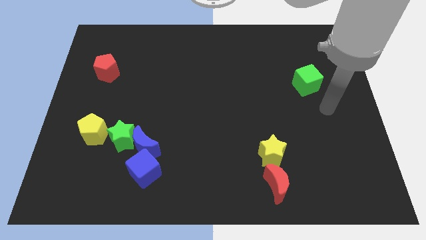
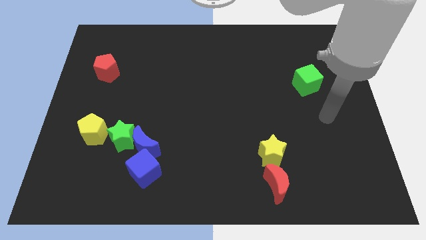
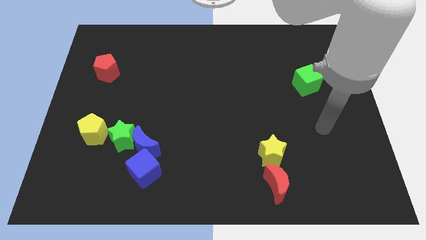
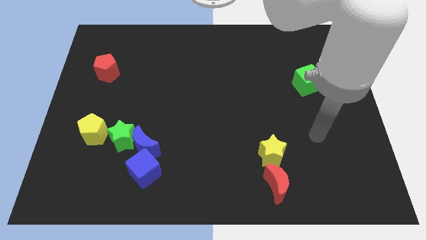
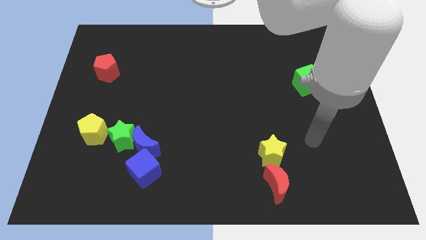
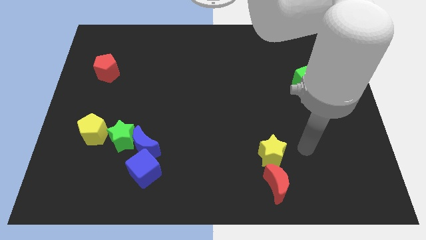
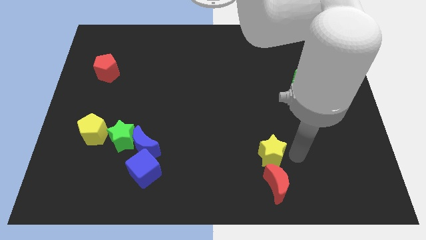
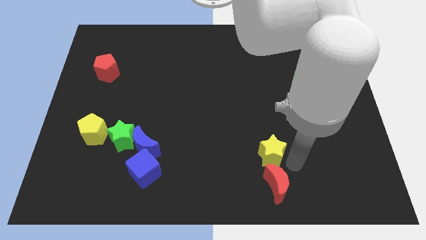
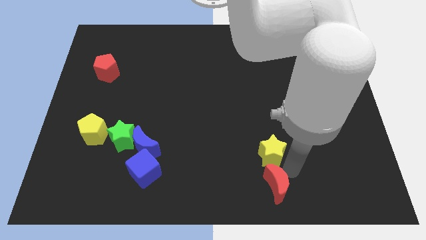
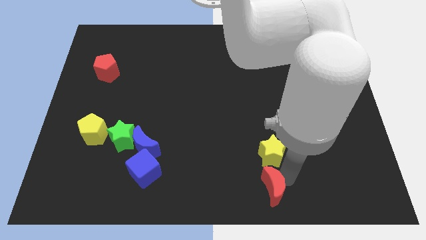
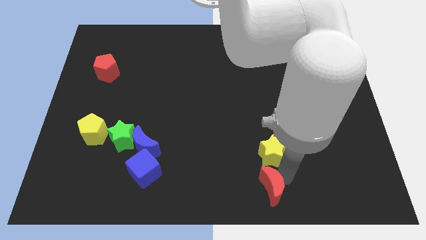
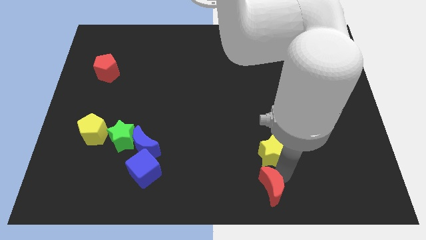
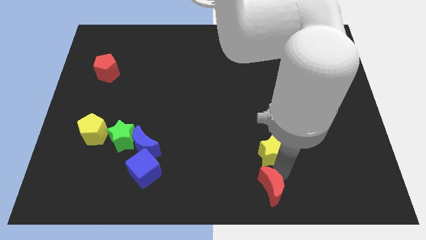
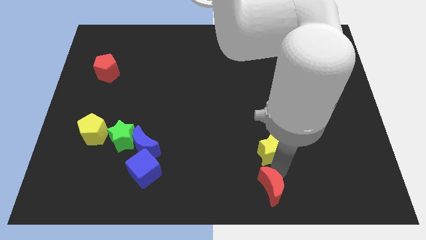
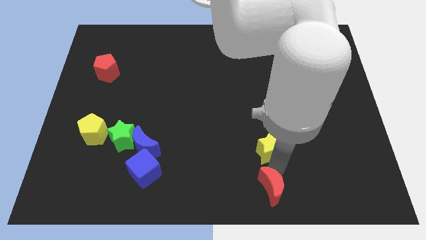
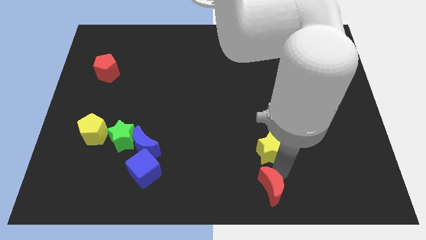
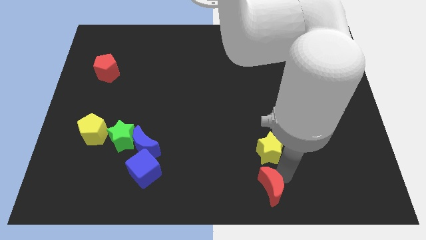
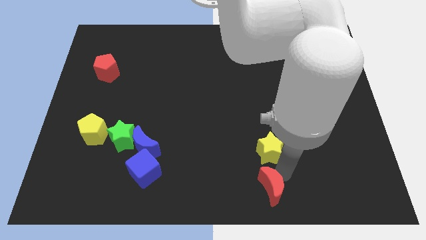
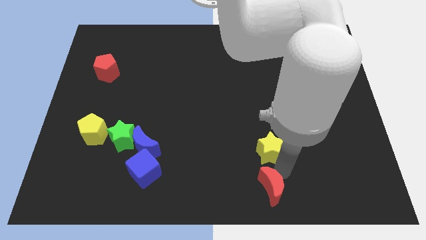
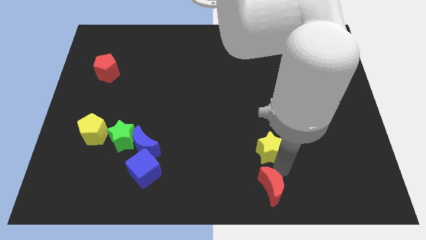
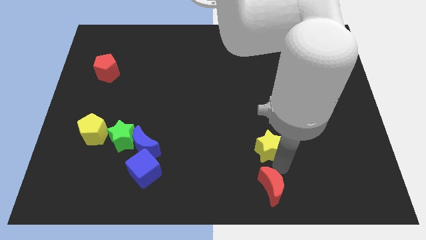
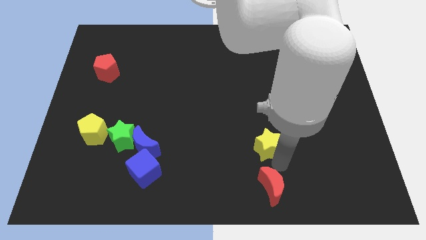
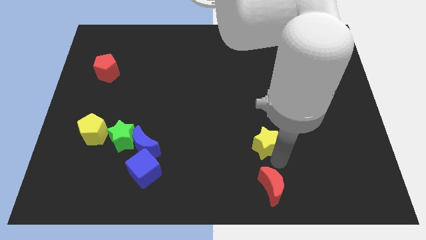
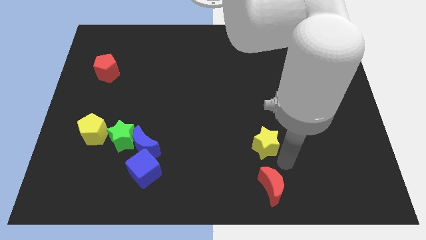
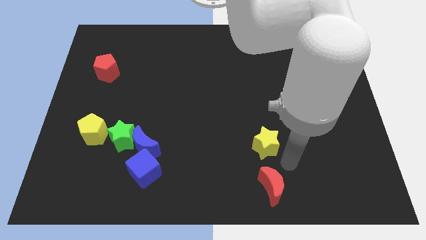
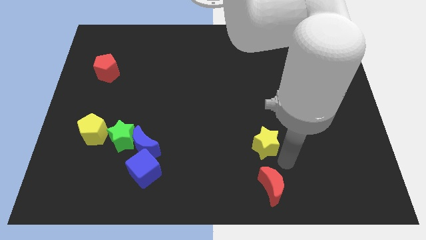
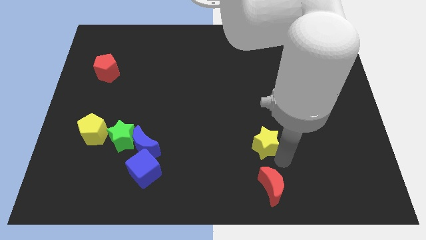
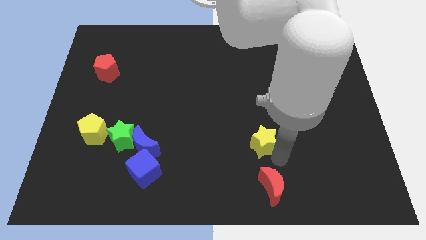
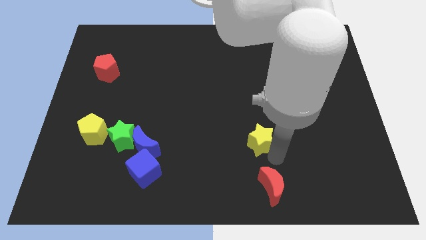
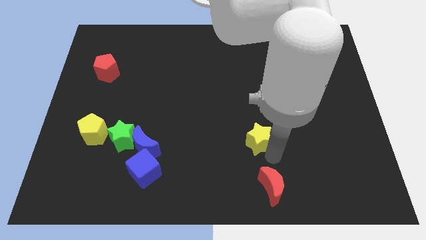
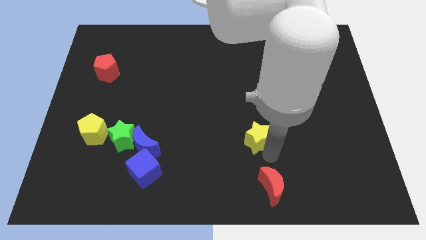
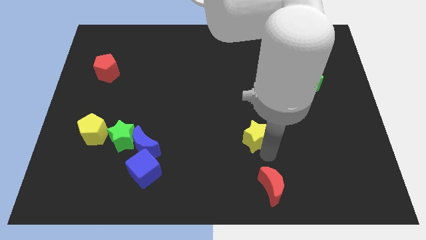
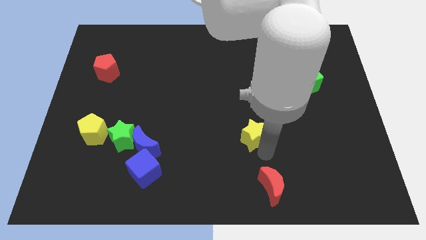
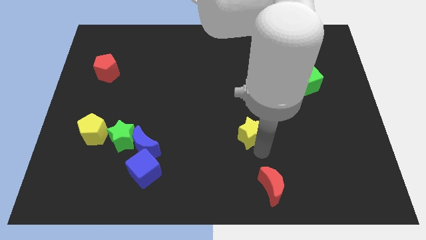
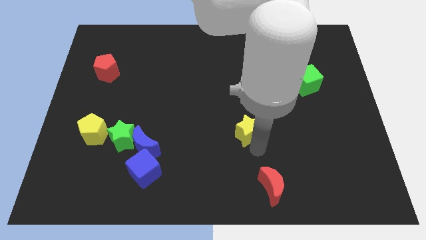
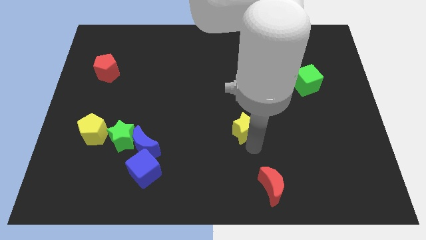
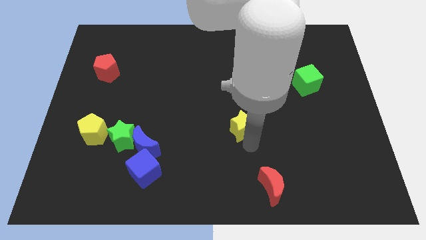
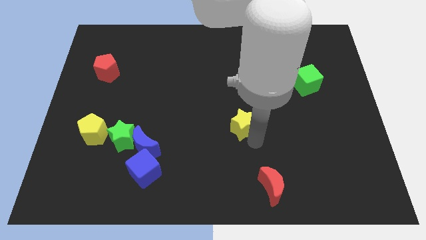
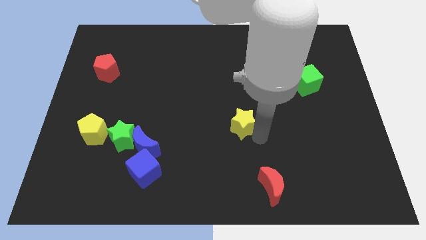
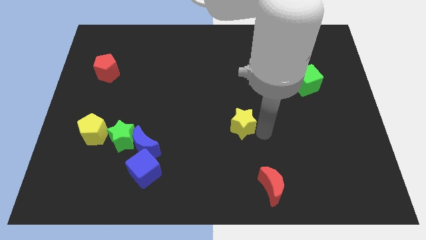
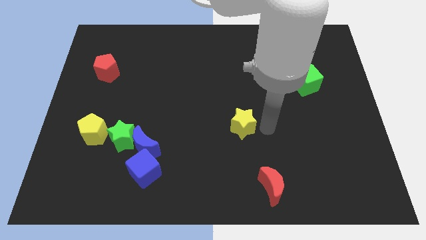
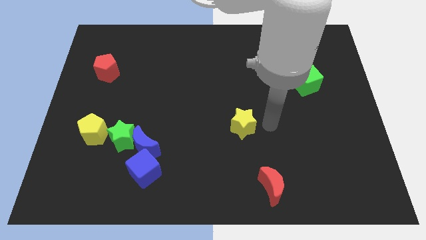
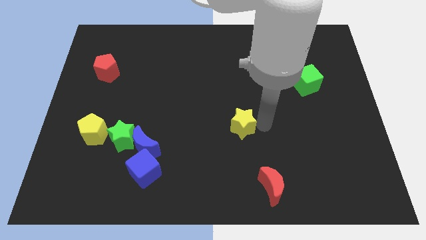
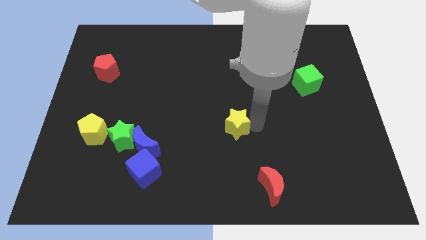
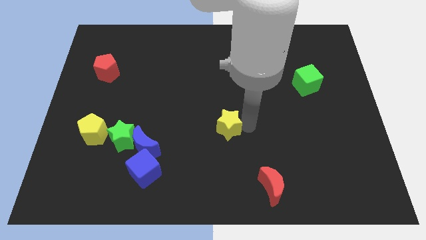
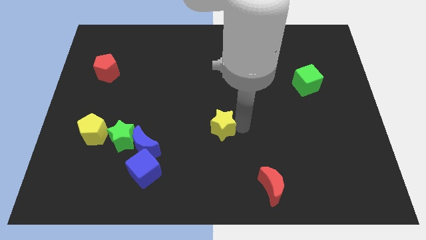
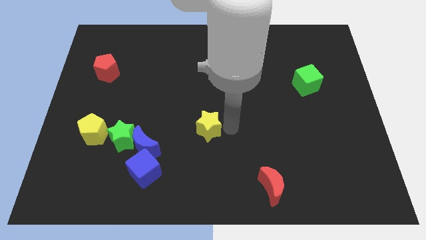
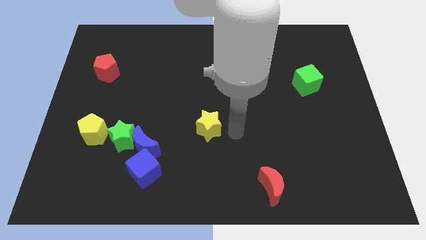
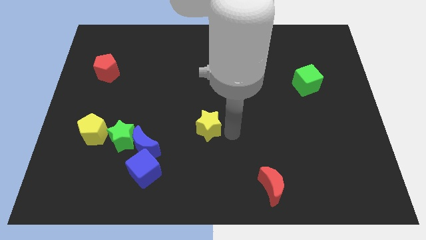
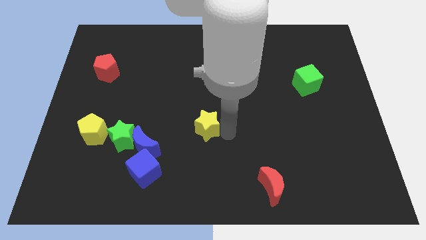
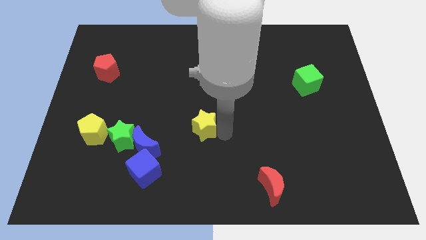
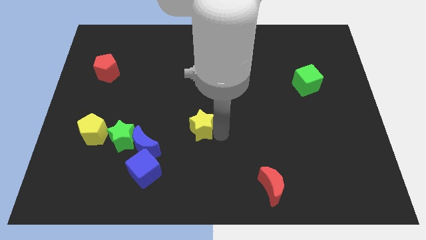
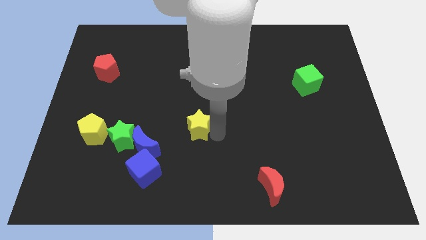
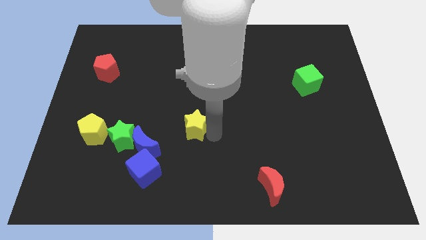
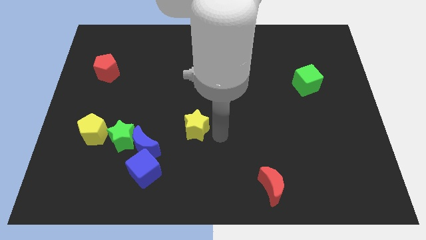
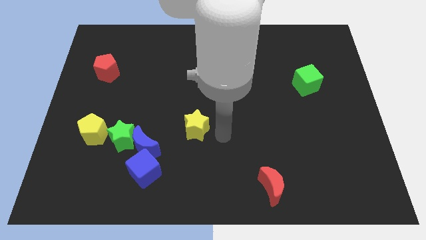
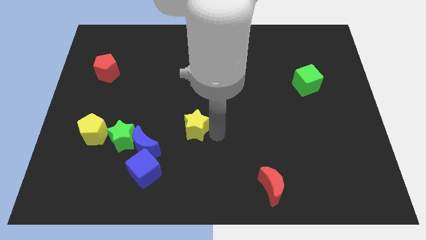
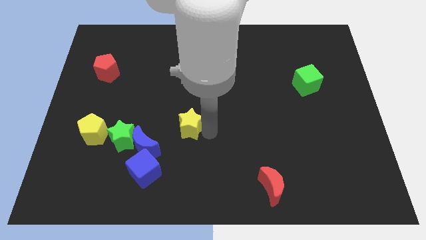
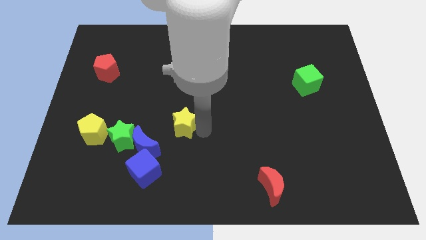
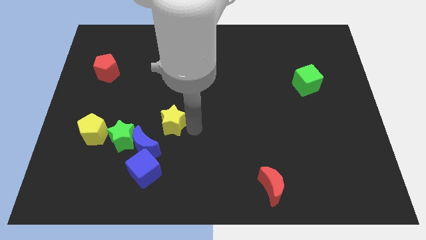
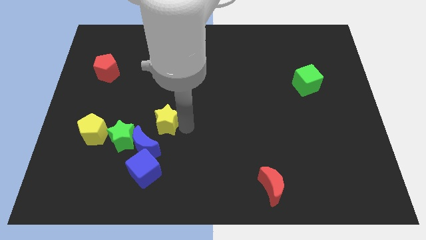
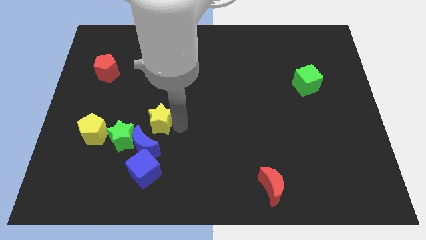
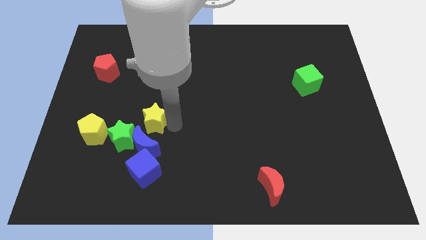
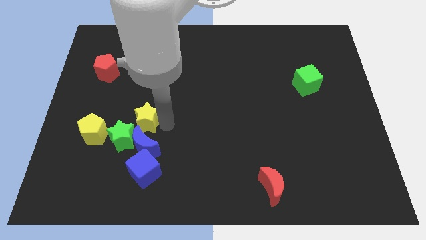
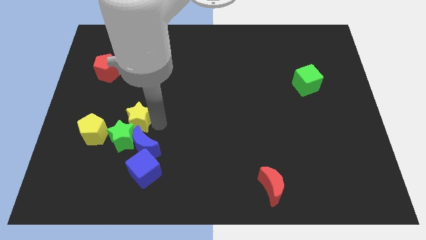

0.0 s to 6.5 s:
put the yellow star towards the green star

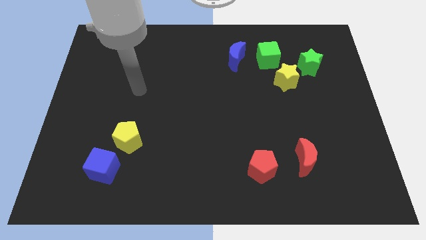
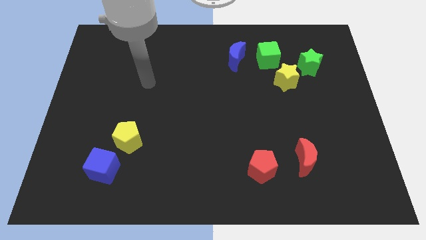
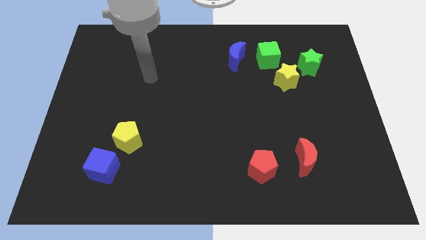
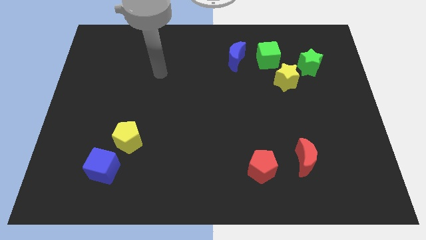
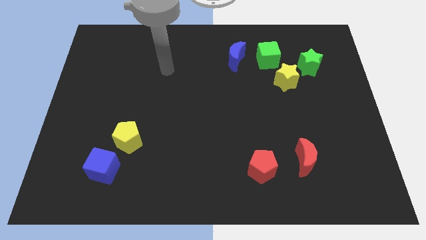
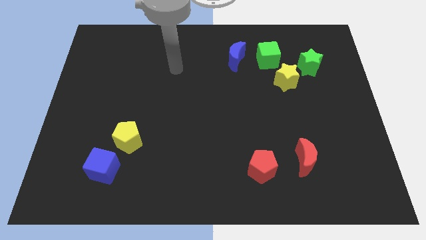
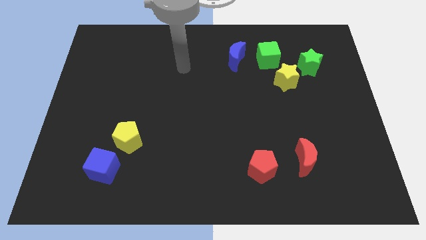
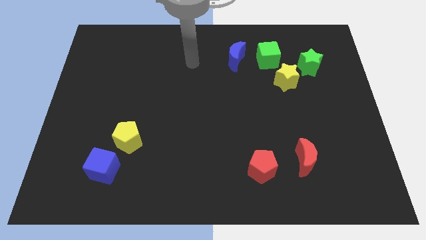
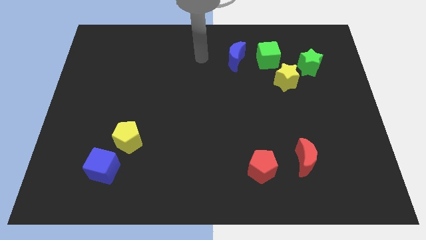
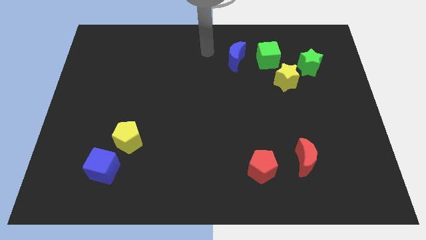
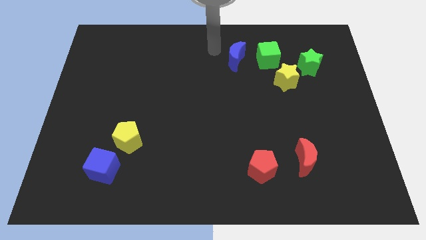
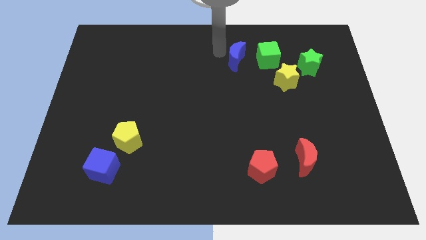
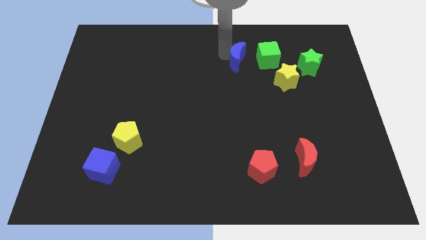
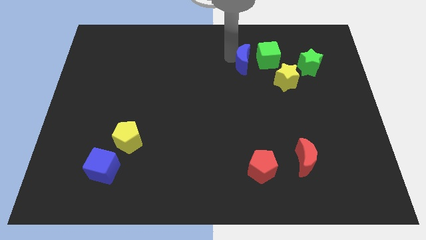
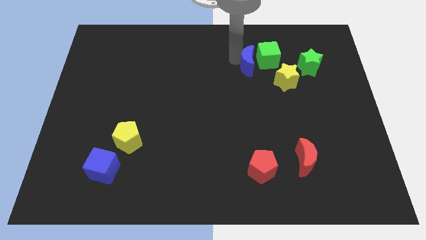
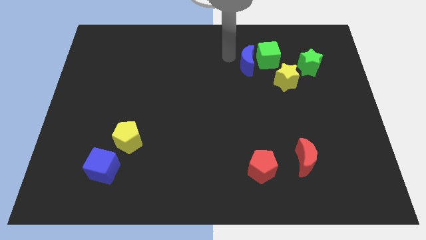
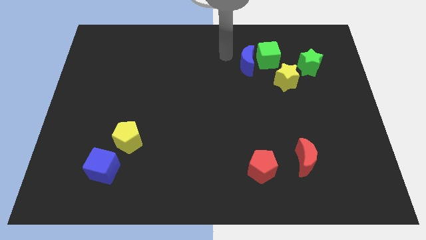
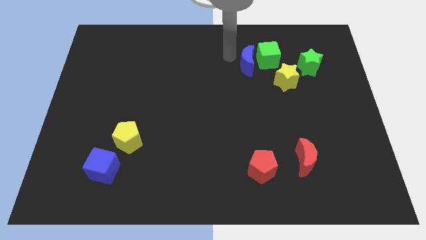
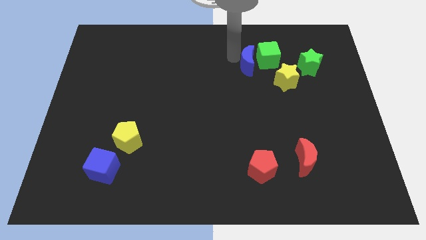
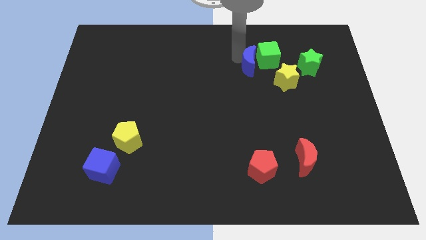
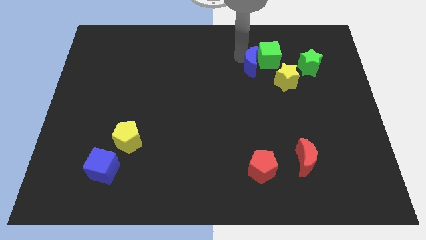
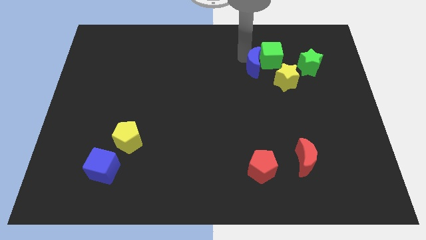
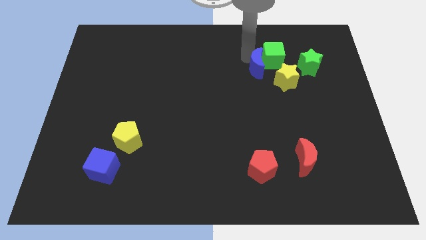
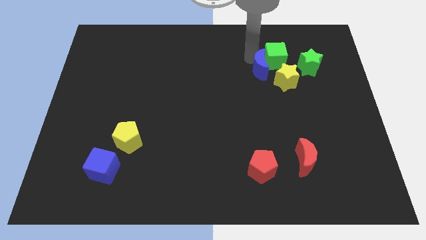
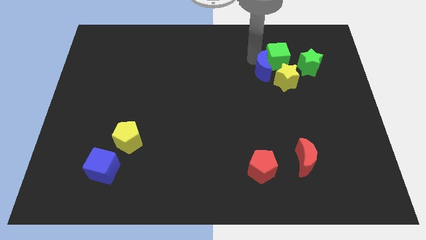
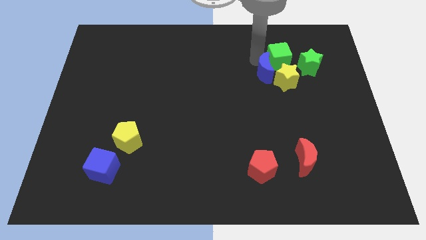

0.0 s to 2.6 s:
put the blue moon to the yellow star
